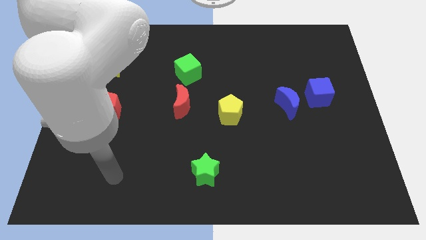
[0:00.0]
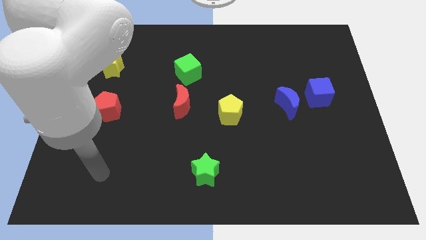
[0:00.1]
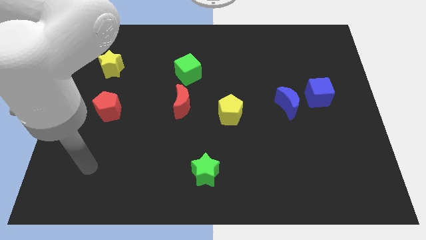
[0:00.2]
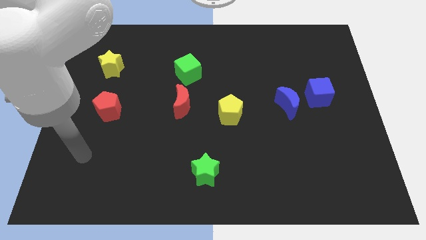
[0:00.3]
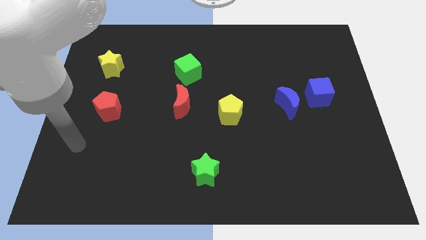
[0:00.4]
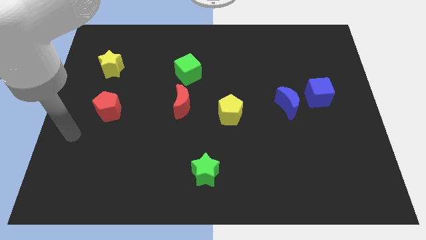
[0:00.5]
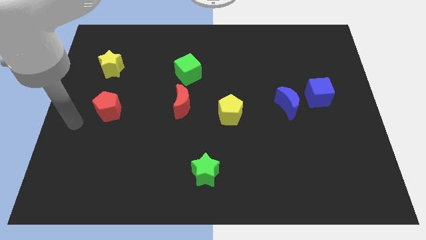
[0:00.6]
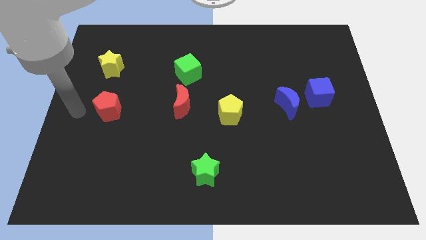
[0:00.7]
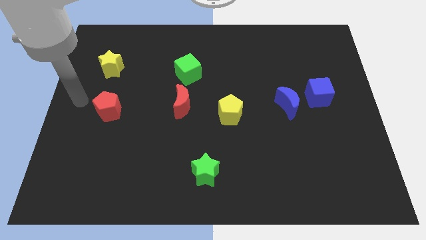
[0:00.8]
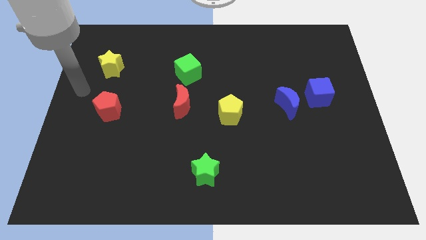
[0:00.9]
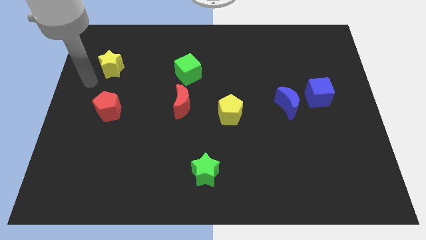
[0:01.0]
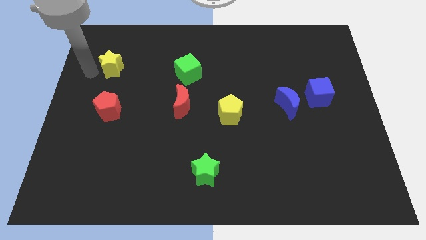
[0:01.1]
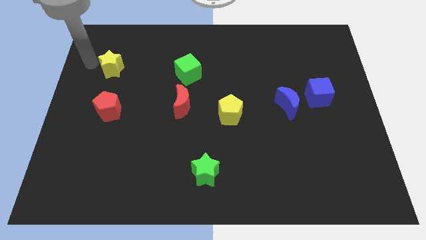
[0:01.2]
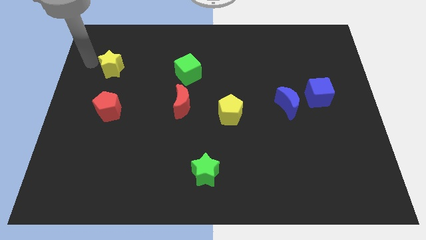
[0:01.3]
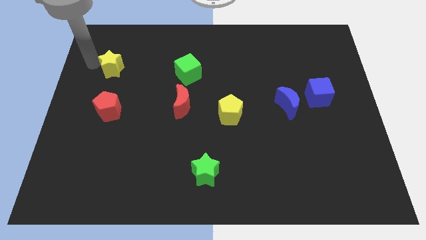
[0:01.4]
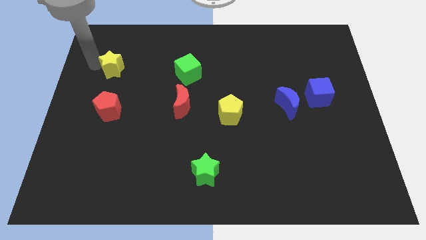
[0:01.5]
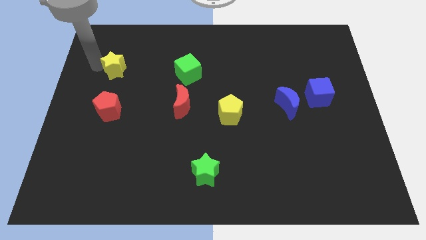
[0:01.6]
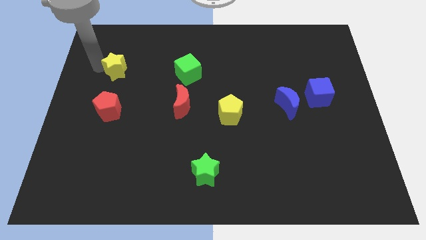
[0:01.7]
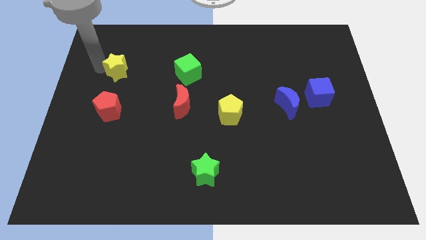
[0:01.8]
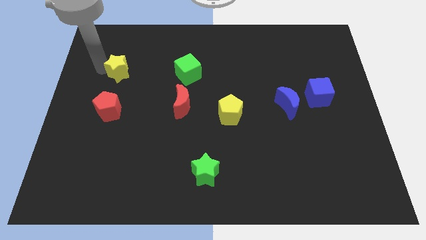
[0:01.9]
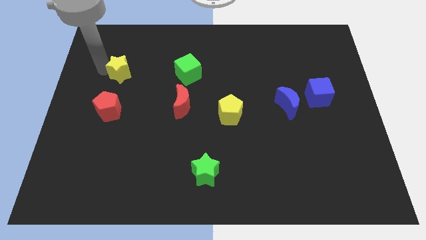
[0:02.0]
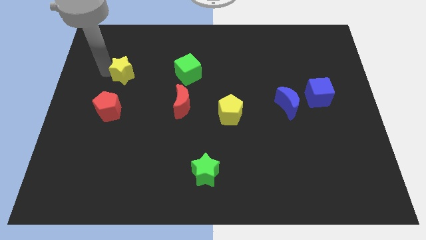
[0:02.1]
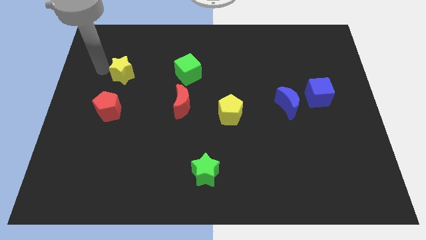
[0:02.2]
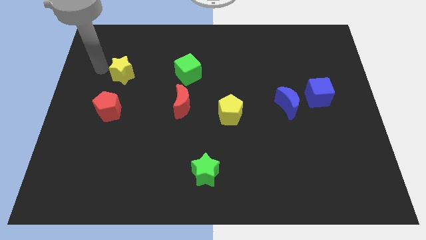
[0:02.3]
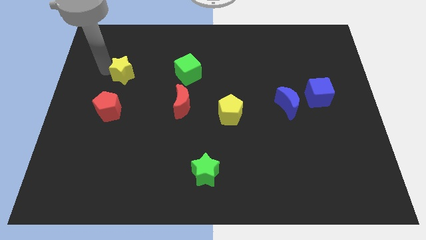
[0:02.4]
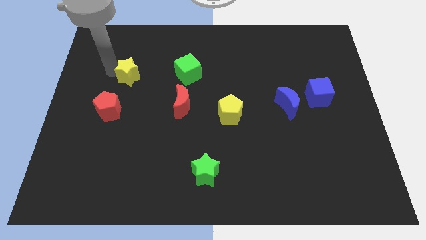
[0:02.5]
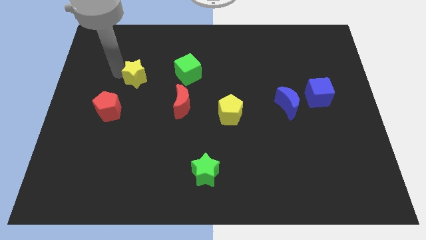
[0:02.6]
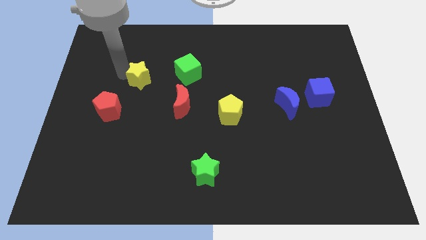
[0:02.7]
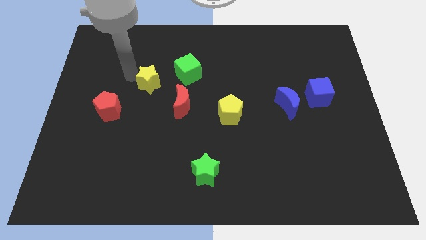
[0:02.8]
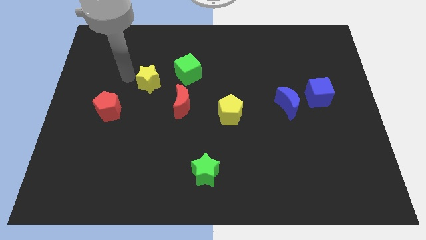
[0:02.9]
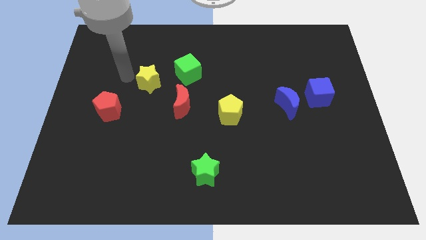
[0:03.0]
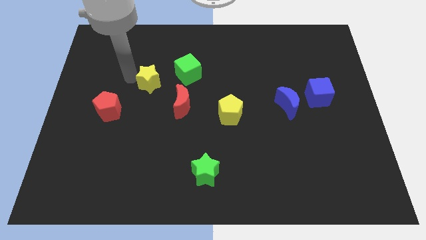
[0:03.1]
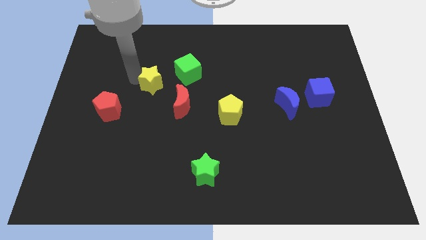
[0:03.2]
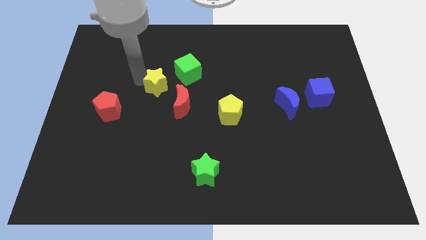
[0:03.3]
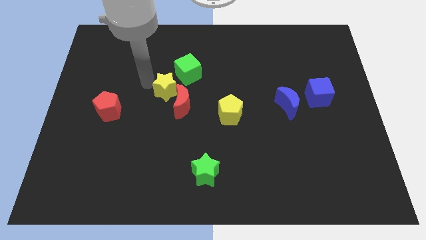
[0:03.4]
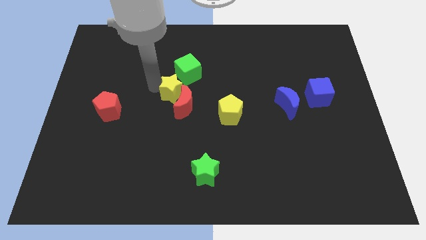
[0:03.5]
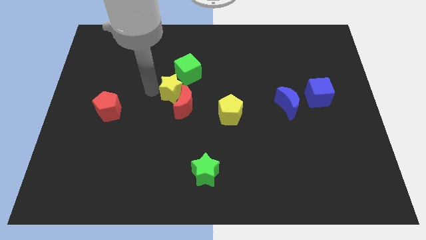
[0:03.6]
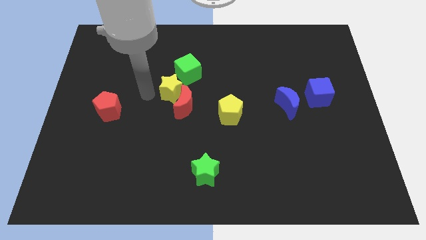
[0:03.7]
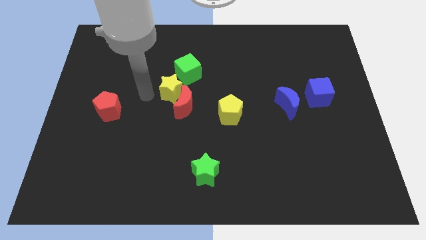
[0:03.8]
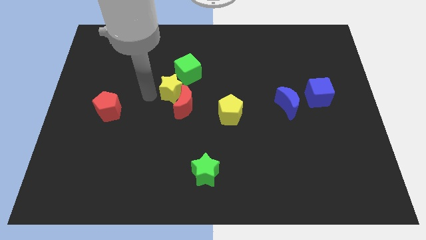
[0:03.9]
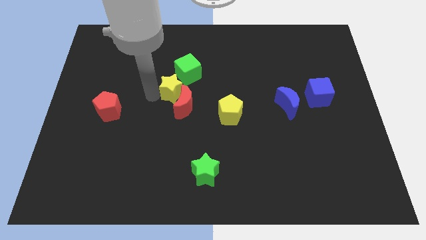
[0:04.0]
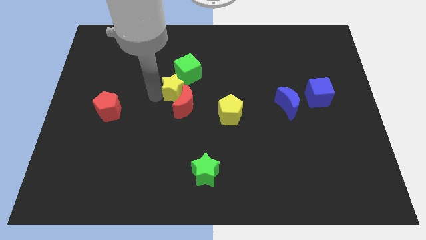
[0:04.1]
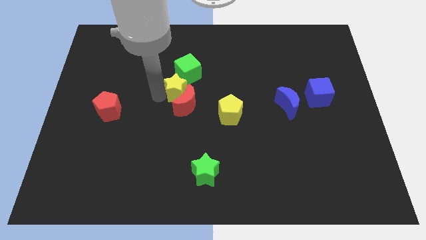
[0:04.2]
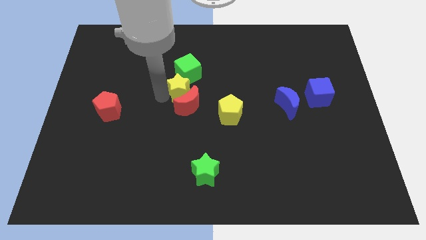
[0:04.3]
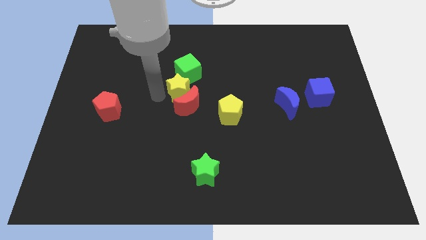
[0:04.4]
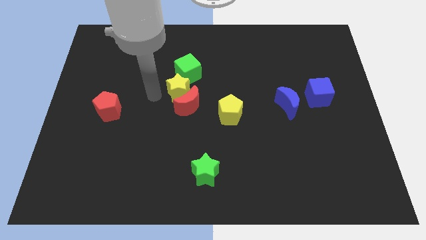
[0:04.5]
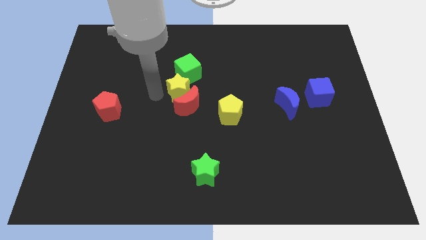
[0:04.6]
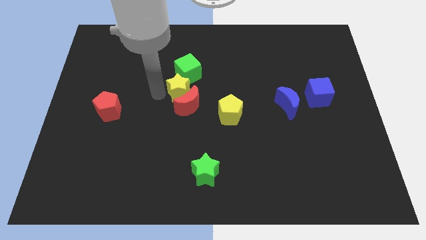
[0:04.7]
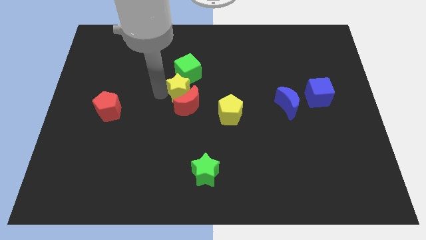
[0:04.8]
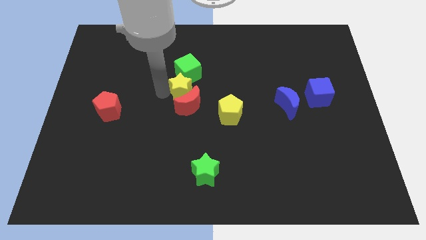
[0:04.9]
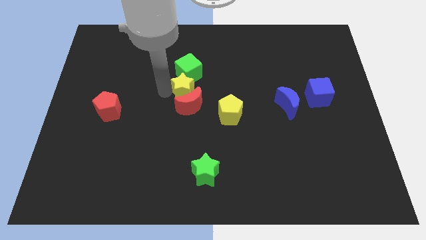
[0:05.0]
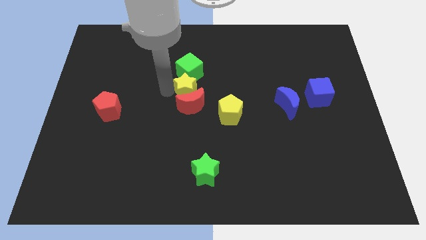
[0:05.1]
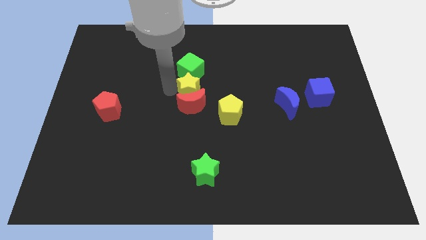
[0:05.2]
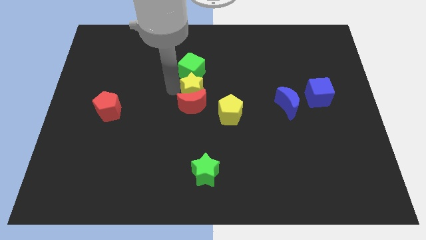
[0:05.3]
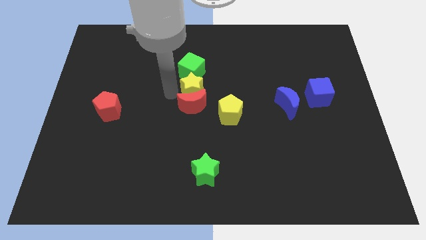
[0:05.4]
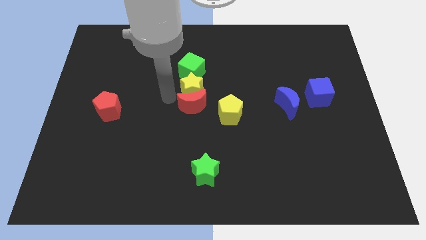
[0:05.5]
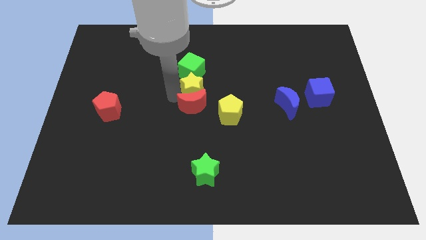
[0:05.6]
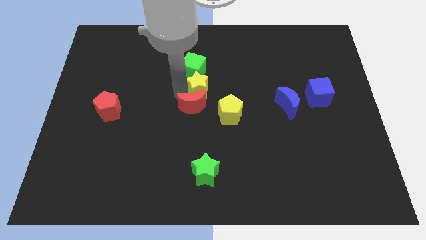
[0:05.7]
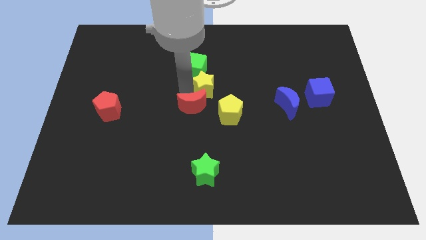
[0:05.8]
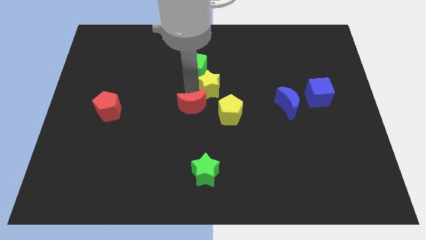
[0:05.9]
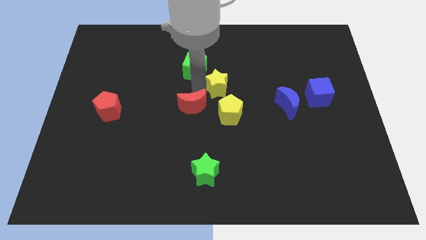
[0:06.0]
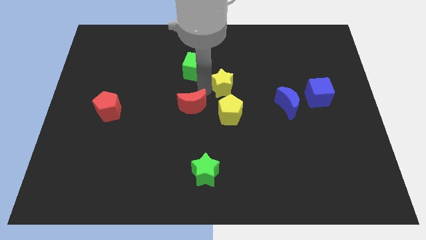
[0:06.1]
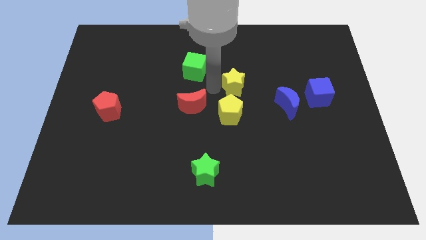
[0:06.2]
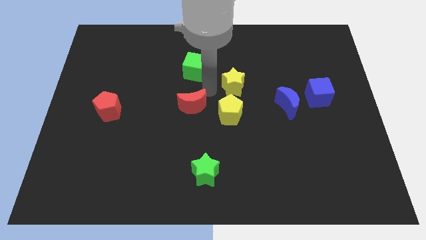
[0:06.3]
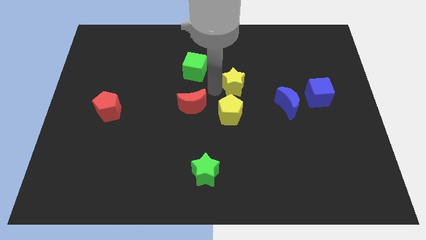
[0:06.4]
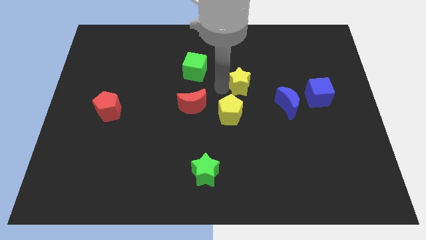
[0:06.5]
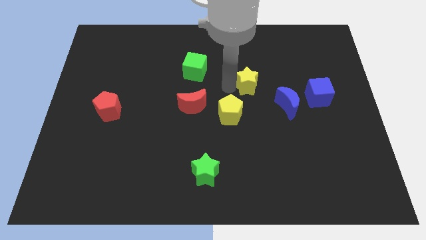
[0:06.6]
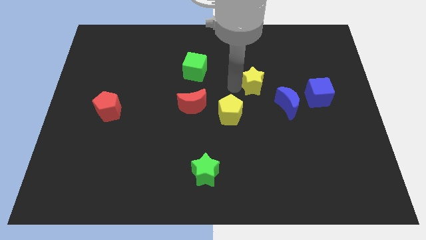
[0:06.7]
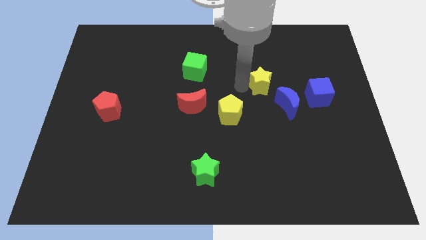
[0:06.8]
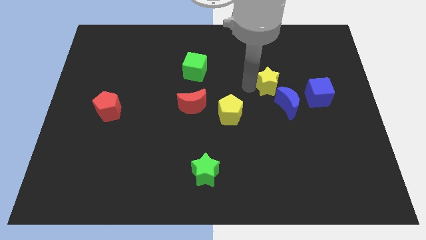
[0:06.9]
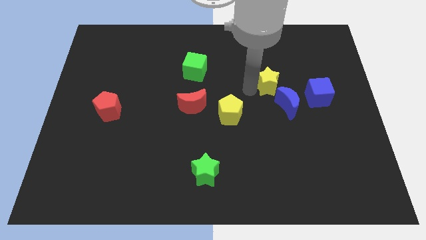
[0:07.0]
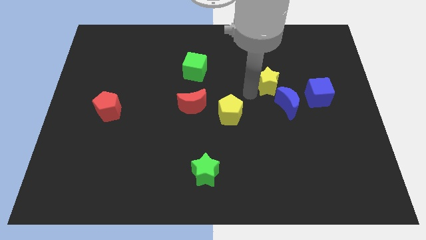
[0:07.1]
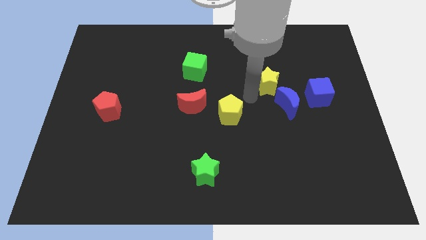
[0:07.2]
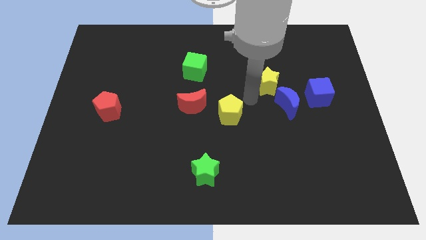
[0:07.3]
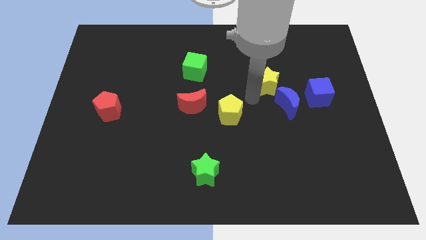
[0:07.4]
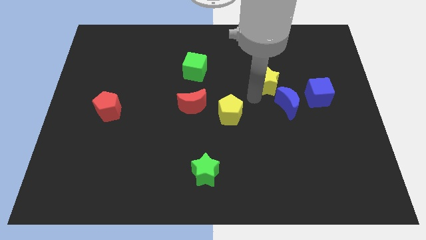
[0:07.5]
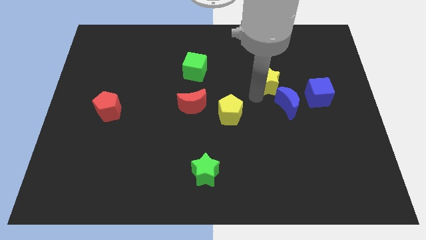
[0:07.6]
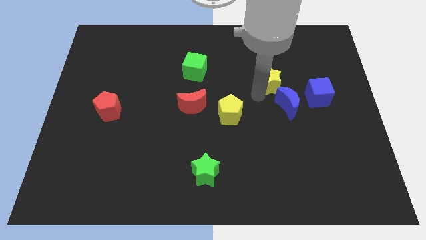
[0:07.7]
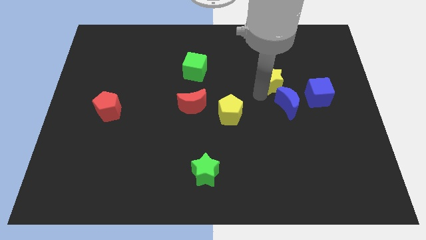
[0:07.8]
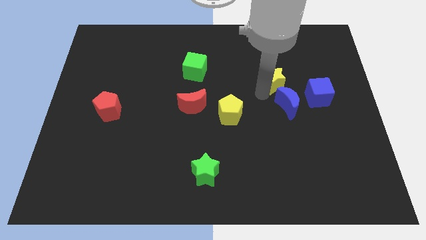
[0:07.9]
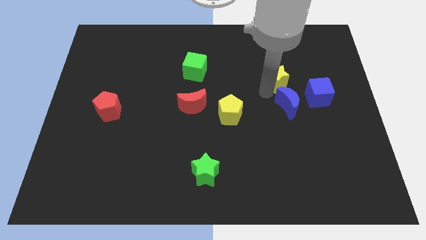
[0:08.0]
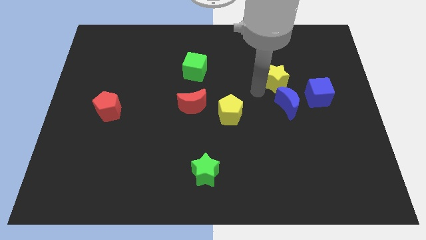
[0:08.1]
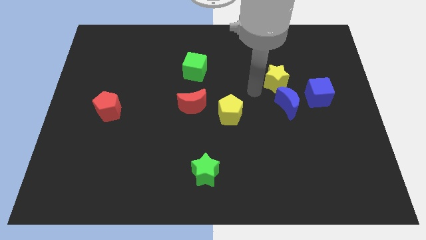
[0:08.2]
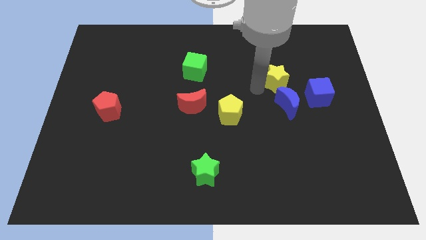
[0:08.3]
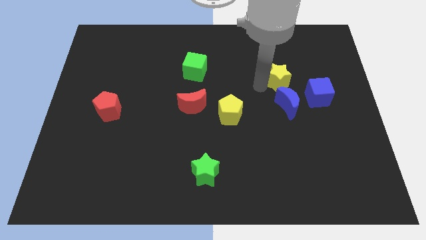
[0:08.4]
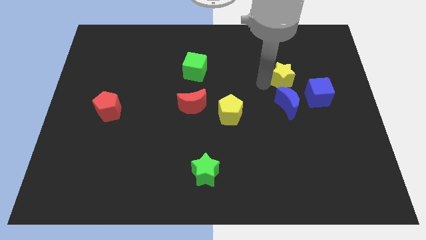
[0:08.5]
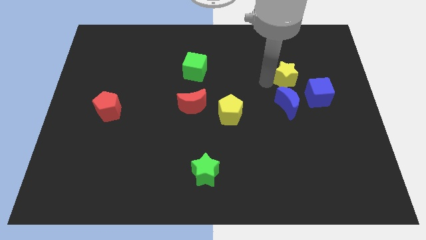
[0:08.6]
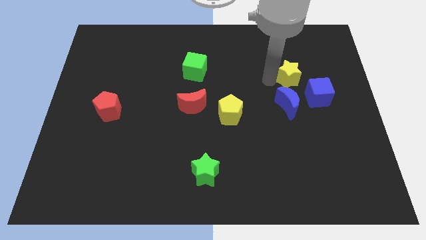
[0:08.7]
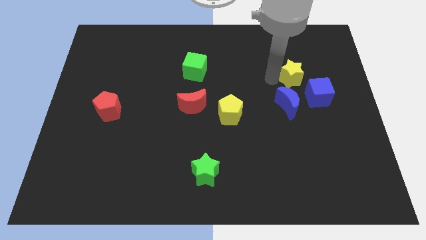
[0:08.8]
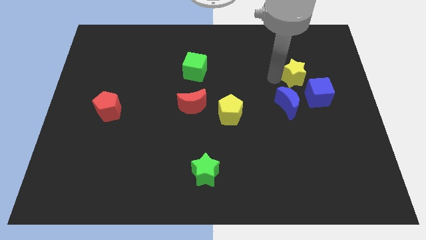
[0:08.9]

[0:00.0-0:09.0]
put the yellow star above the blue cube
